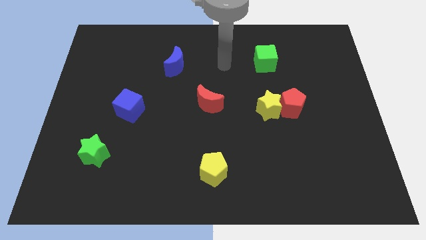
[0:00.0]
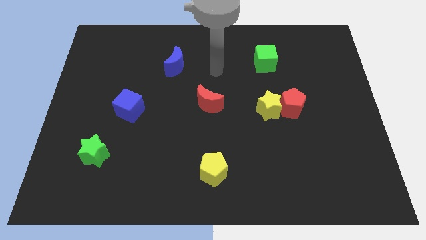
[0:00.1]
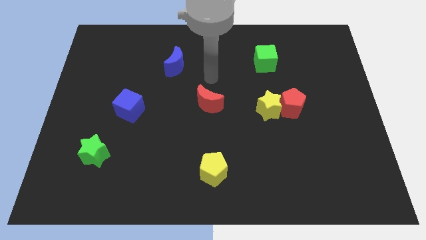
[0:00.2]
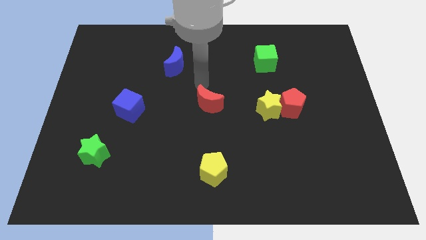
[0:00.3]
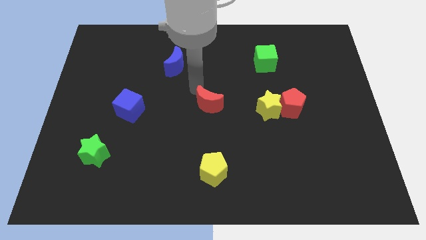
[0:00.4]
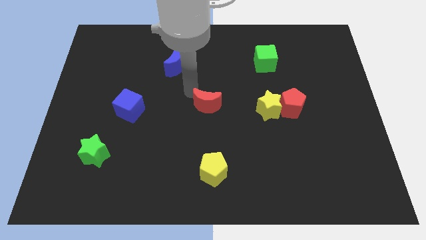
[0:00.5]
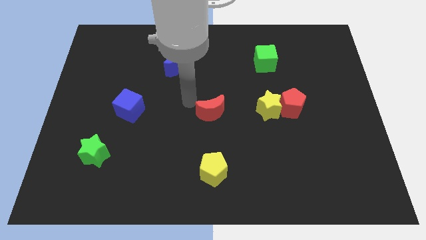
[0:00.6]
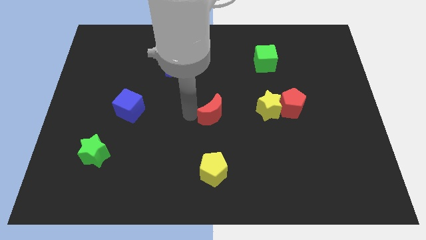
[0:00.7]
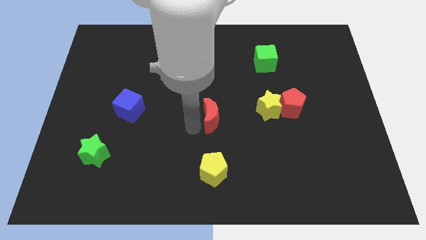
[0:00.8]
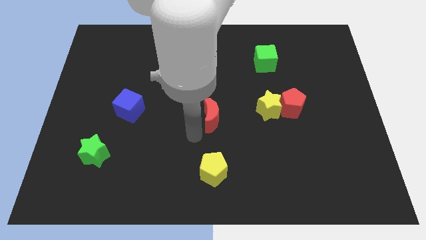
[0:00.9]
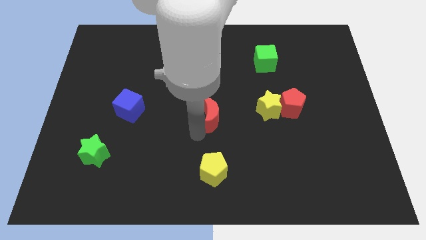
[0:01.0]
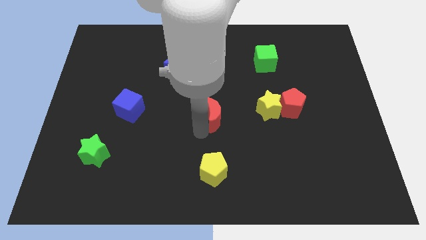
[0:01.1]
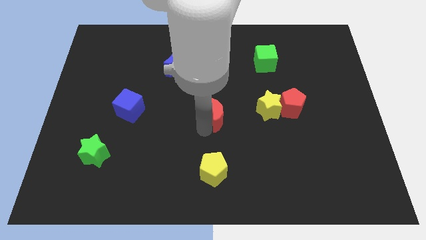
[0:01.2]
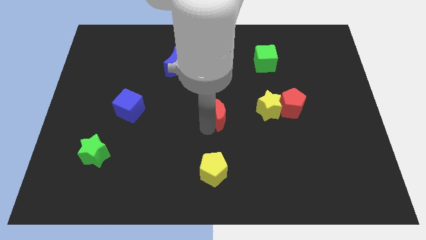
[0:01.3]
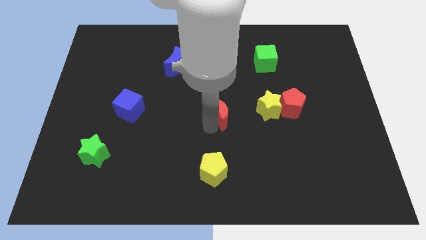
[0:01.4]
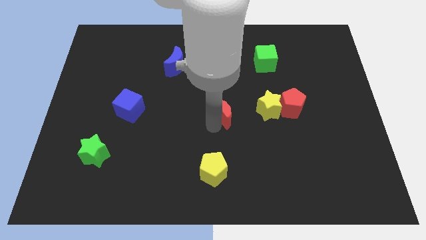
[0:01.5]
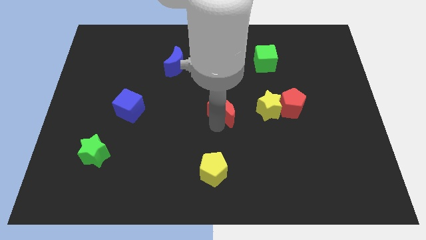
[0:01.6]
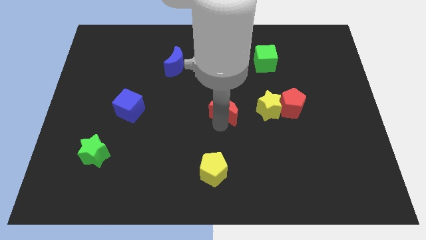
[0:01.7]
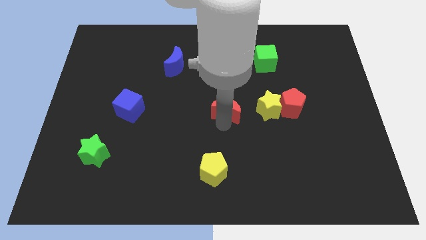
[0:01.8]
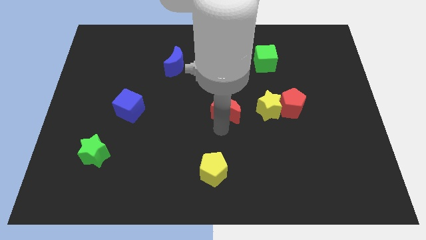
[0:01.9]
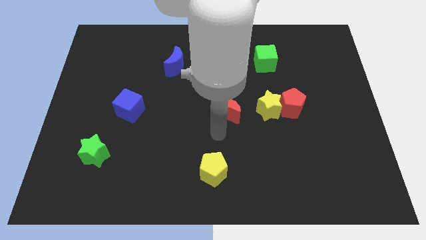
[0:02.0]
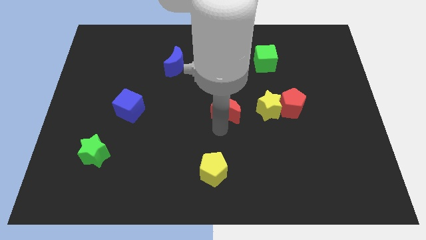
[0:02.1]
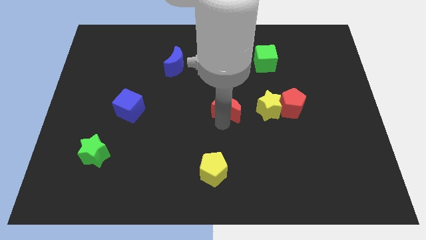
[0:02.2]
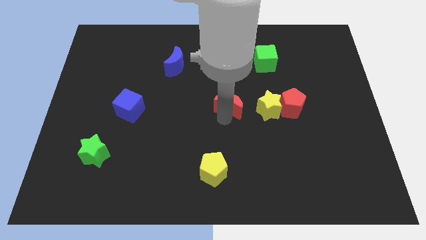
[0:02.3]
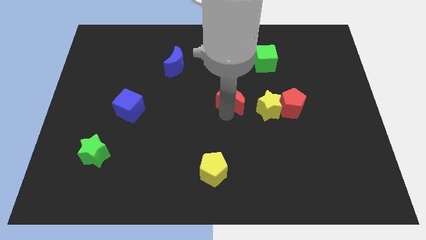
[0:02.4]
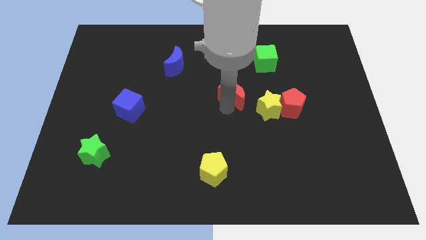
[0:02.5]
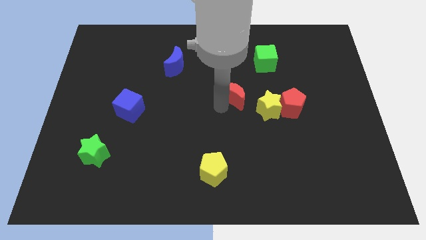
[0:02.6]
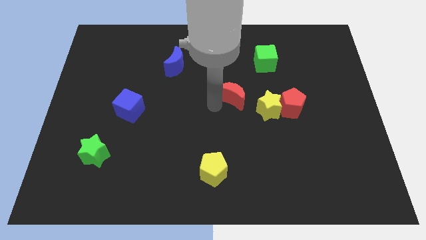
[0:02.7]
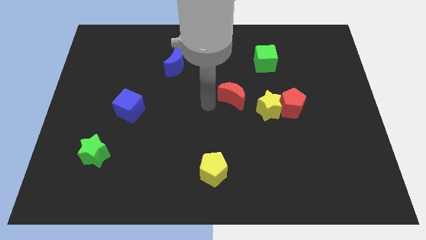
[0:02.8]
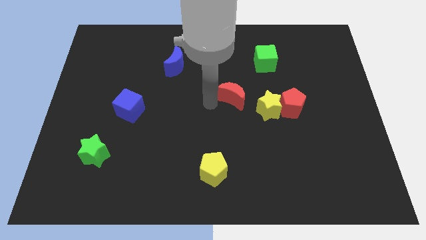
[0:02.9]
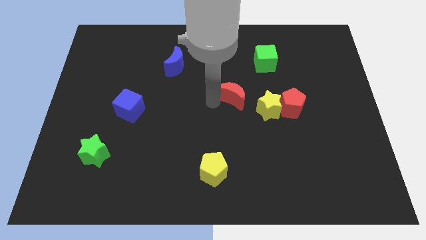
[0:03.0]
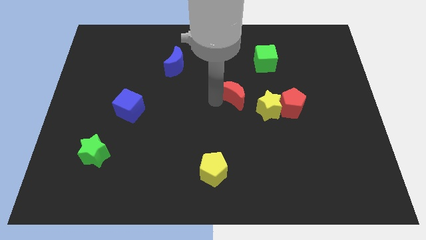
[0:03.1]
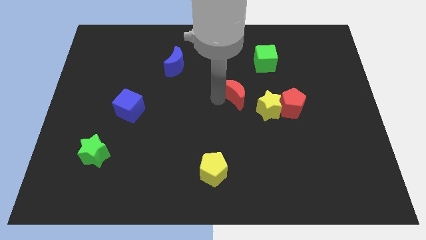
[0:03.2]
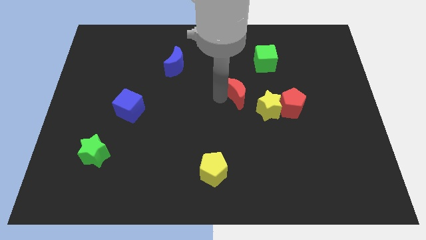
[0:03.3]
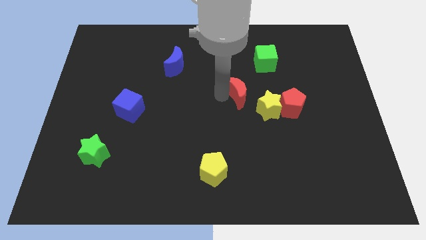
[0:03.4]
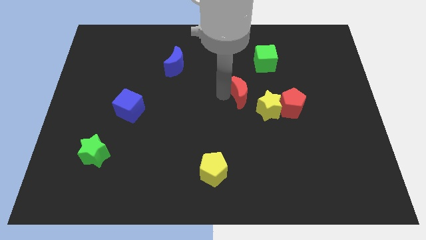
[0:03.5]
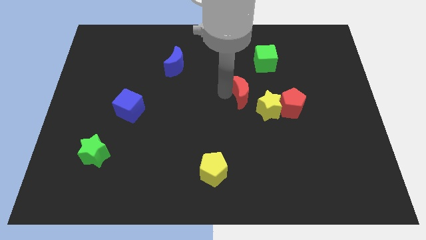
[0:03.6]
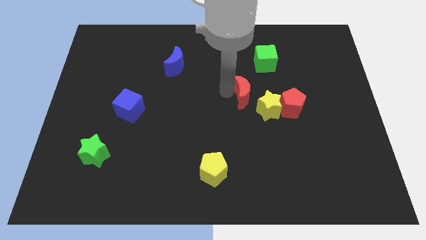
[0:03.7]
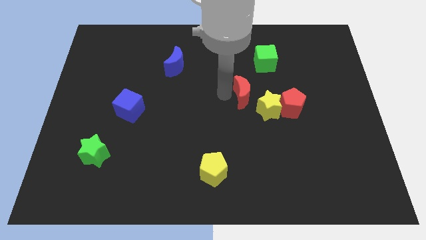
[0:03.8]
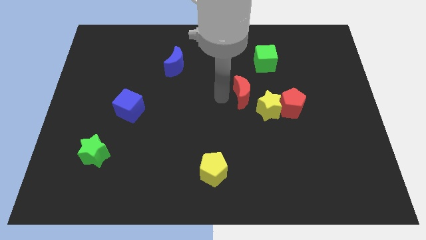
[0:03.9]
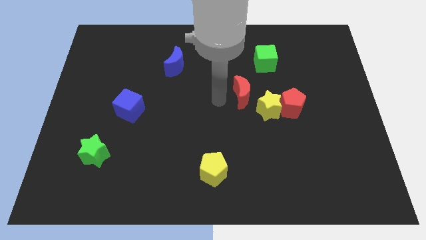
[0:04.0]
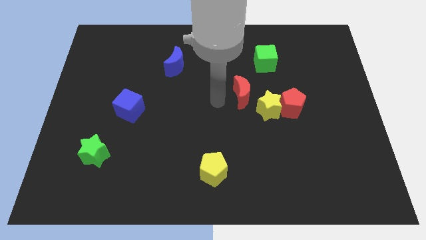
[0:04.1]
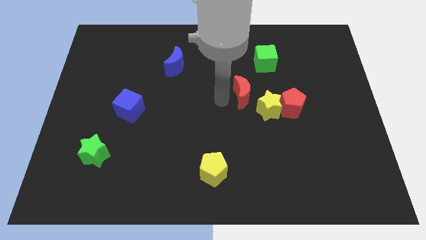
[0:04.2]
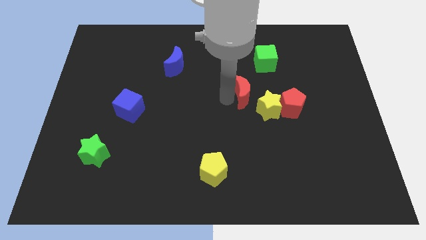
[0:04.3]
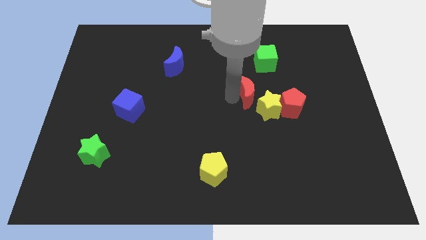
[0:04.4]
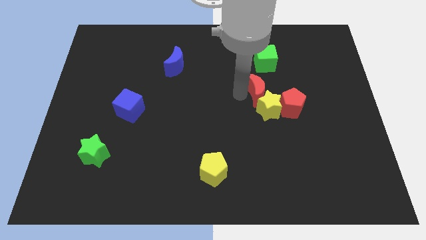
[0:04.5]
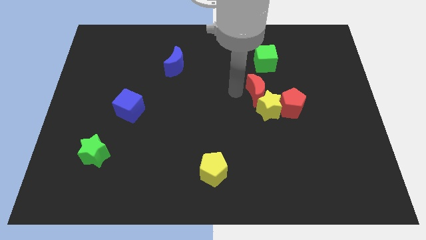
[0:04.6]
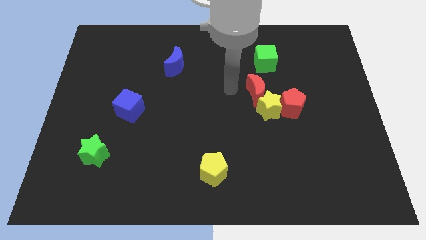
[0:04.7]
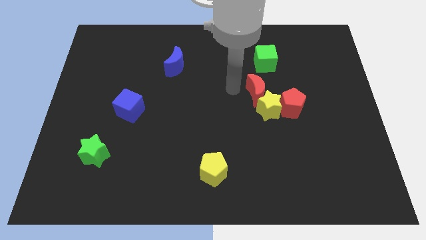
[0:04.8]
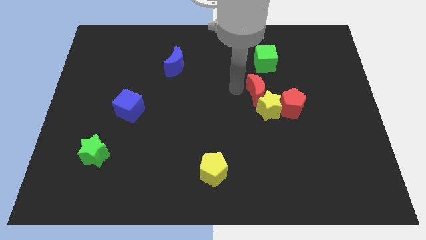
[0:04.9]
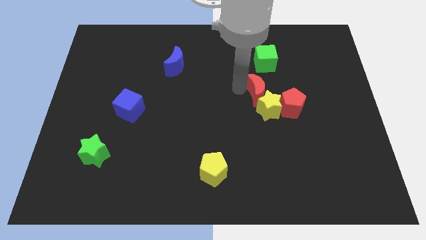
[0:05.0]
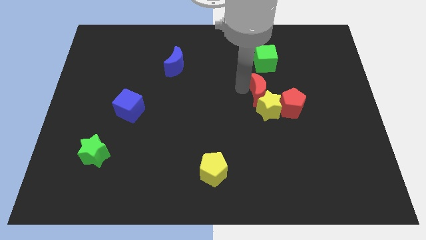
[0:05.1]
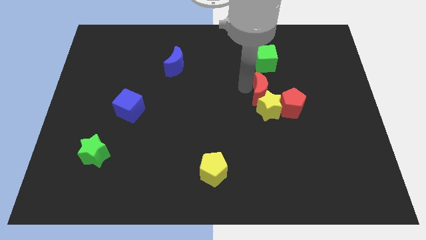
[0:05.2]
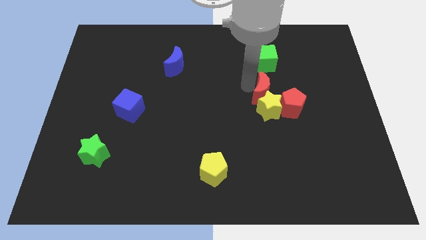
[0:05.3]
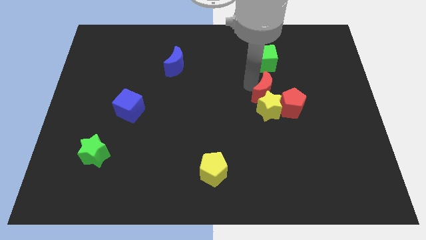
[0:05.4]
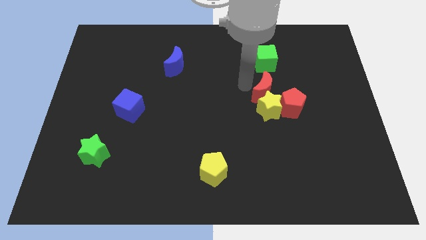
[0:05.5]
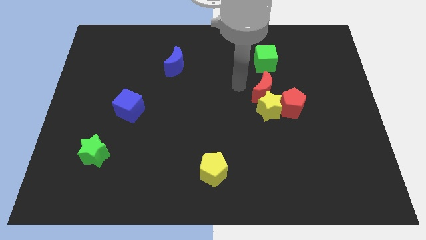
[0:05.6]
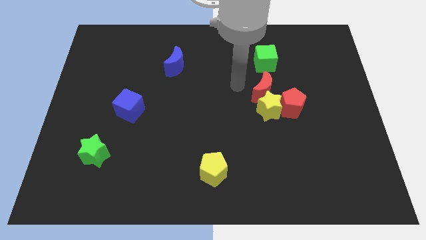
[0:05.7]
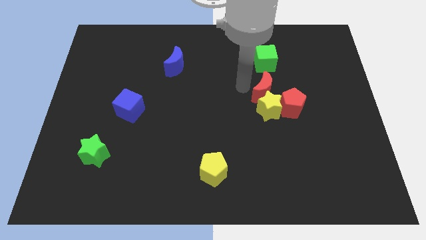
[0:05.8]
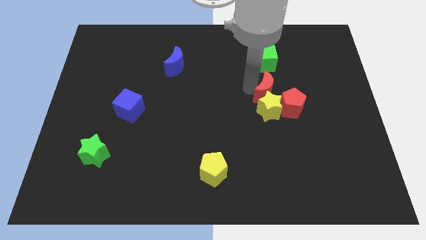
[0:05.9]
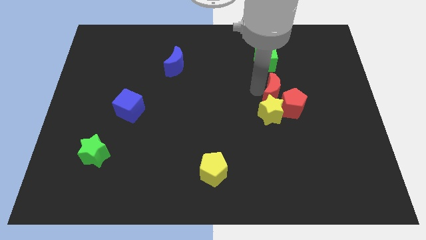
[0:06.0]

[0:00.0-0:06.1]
slide the red moon towards the red pentagon
